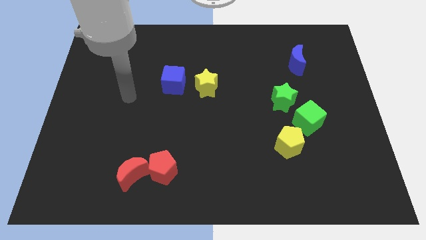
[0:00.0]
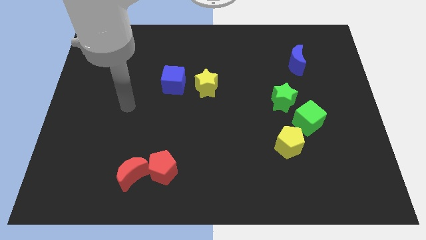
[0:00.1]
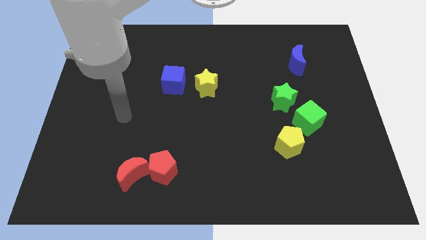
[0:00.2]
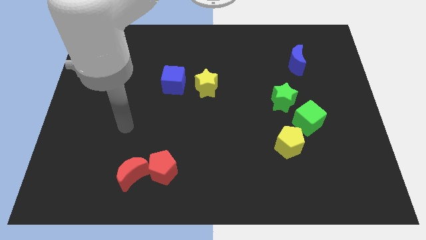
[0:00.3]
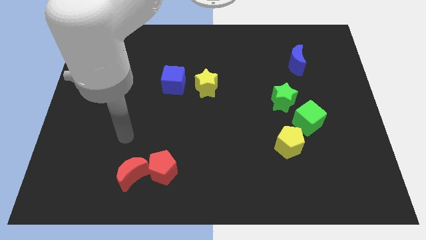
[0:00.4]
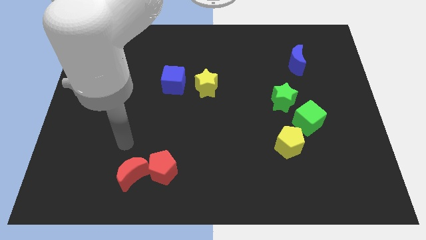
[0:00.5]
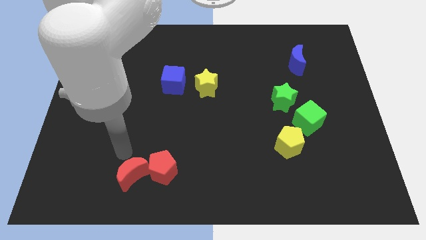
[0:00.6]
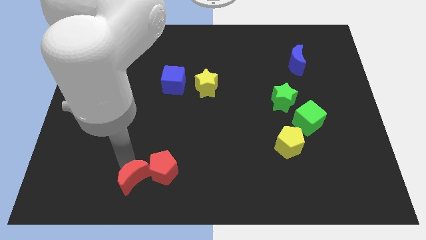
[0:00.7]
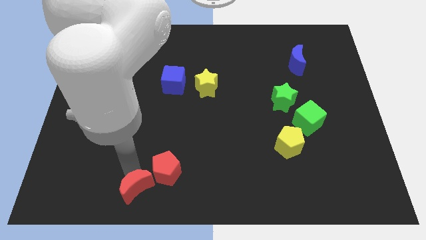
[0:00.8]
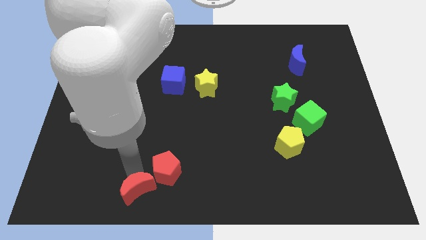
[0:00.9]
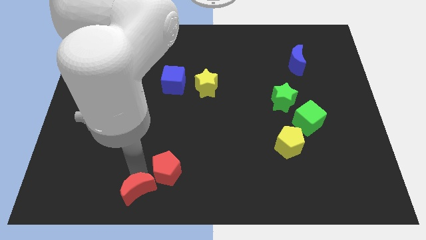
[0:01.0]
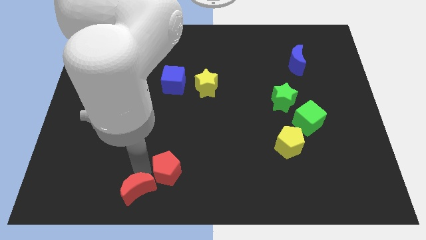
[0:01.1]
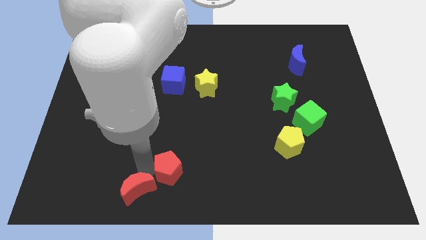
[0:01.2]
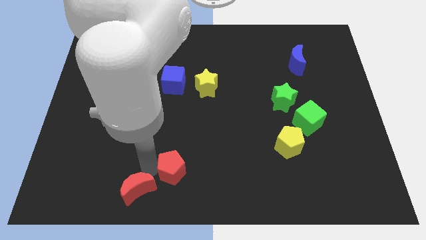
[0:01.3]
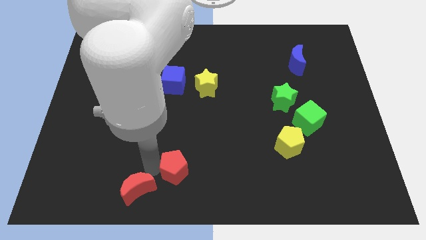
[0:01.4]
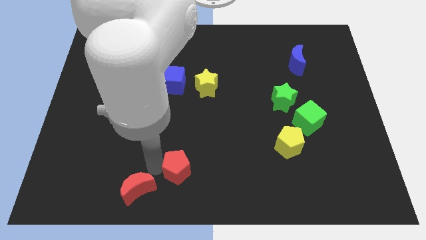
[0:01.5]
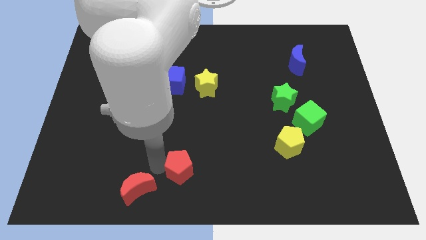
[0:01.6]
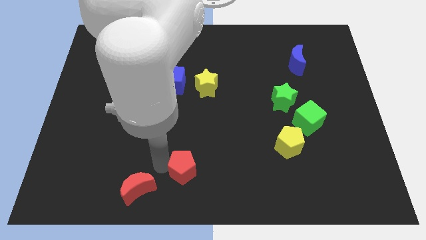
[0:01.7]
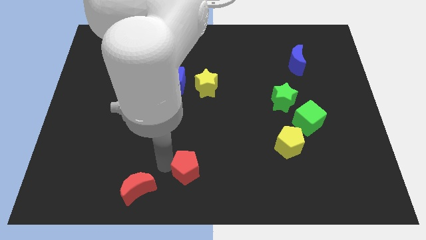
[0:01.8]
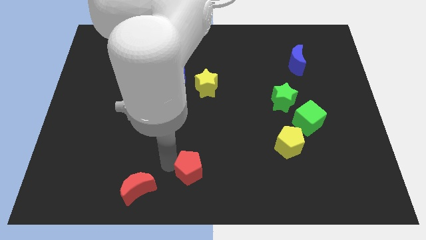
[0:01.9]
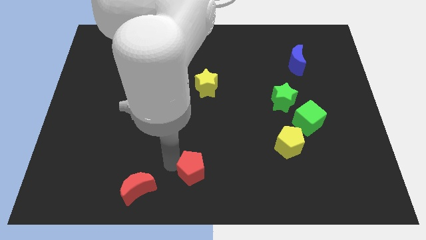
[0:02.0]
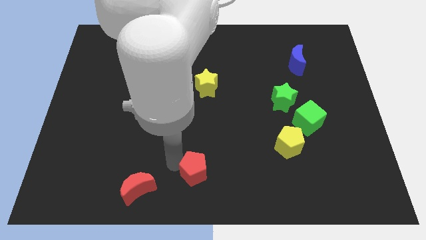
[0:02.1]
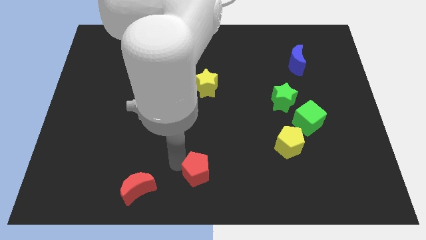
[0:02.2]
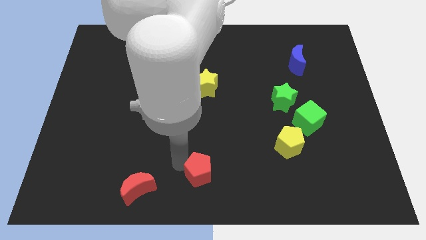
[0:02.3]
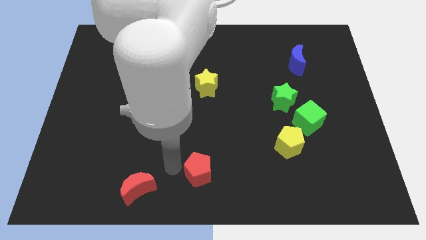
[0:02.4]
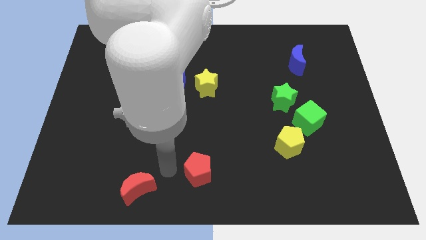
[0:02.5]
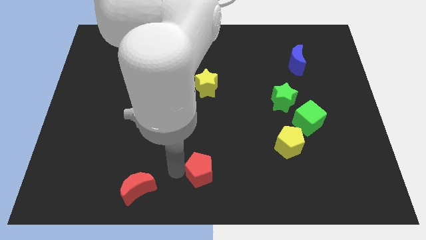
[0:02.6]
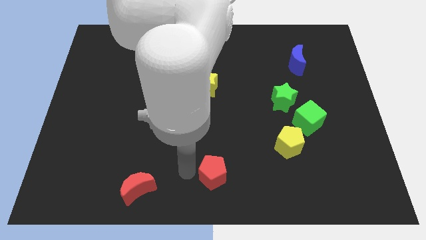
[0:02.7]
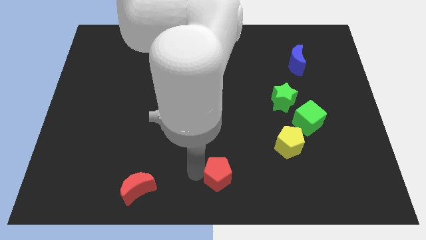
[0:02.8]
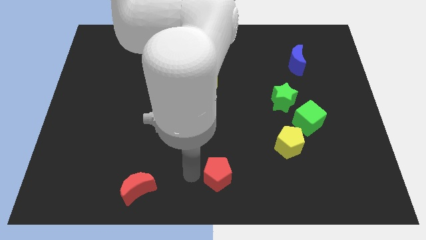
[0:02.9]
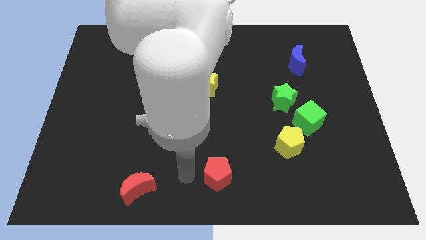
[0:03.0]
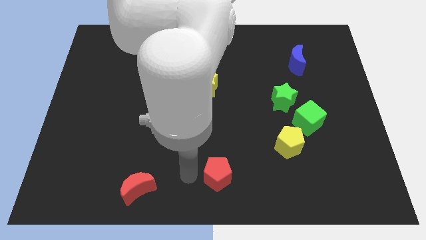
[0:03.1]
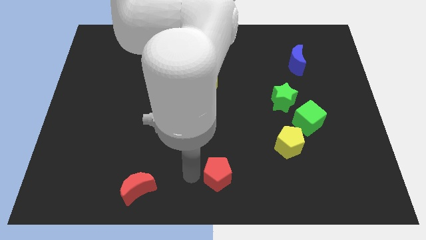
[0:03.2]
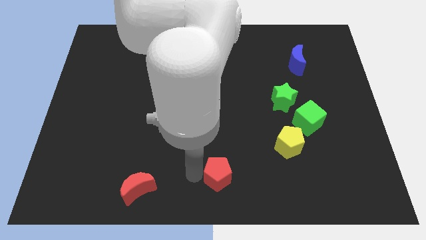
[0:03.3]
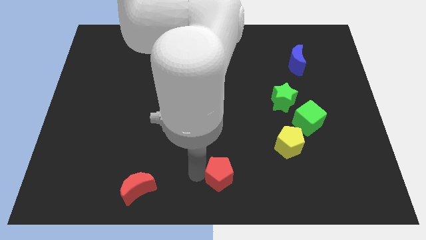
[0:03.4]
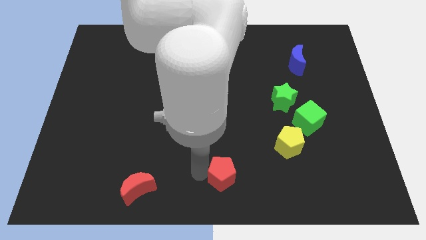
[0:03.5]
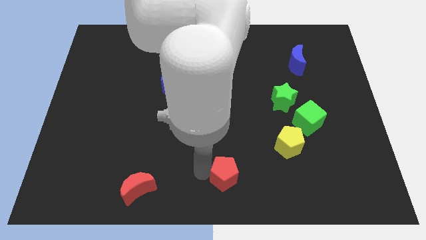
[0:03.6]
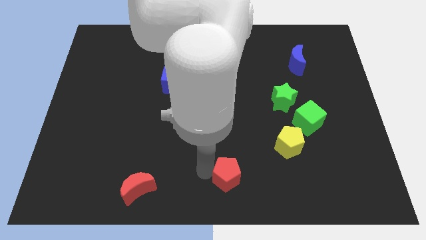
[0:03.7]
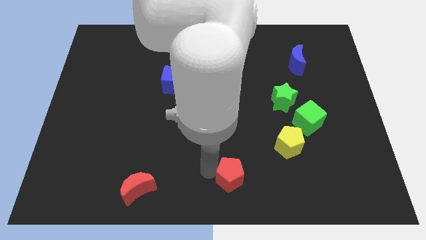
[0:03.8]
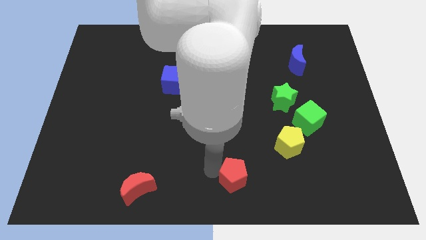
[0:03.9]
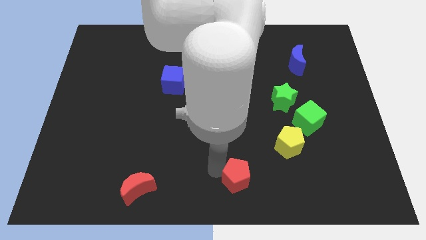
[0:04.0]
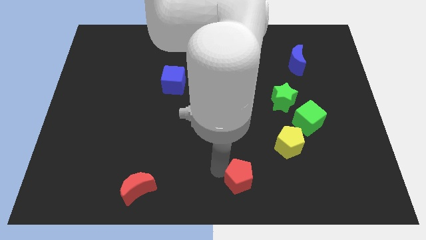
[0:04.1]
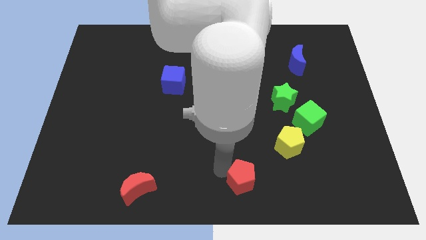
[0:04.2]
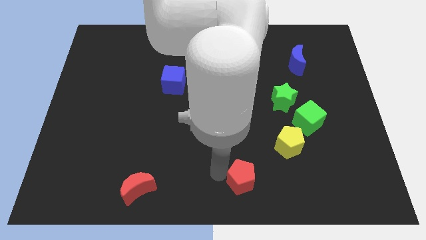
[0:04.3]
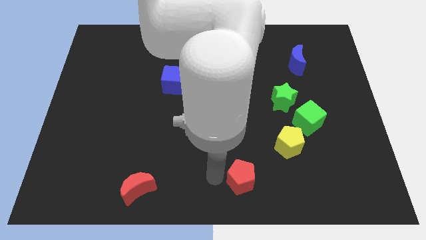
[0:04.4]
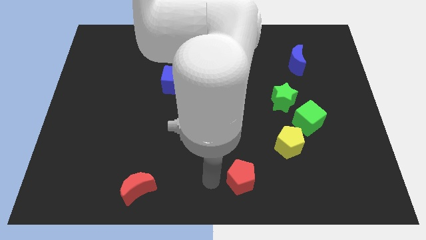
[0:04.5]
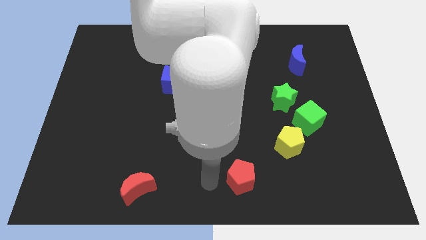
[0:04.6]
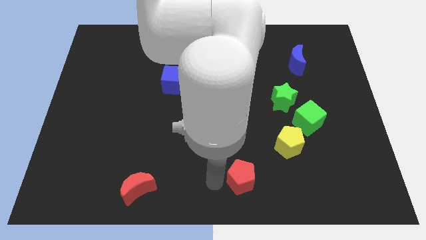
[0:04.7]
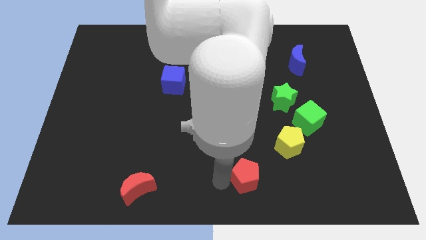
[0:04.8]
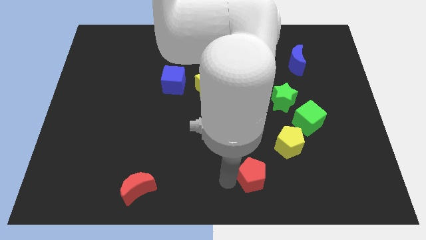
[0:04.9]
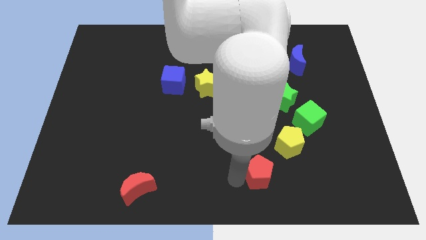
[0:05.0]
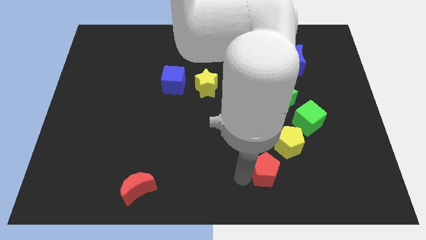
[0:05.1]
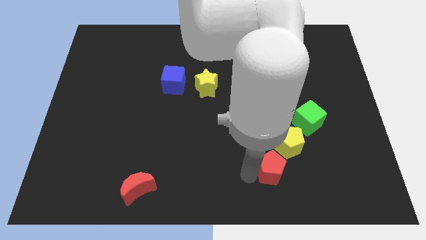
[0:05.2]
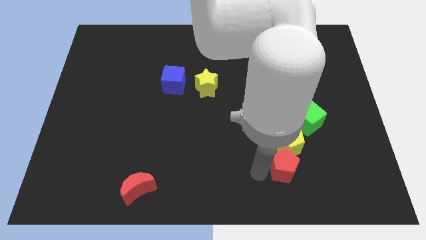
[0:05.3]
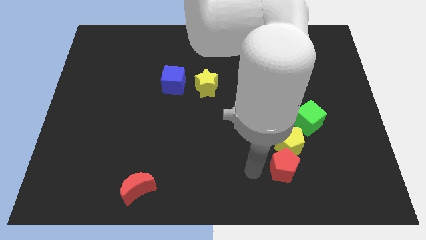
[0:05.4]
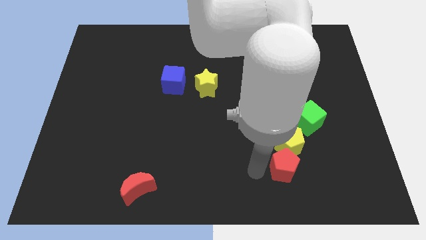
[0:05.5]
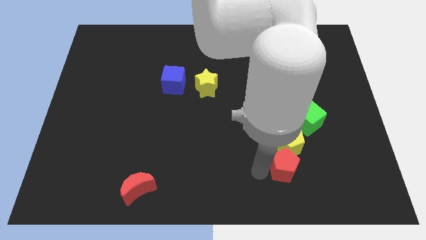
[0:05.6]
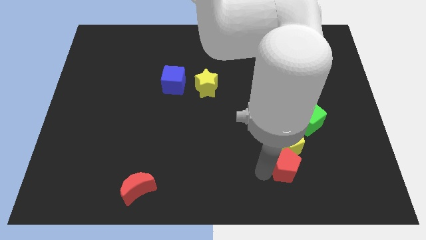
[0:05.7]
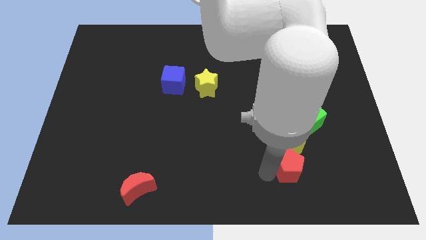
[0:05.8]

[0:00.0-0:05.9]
push the red pentagon to the bottom right side of the yellow pentagon

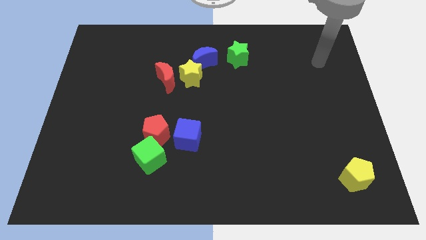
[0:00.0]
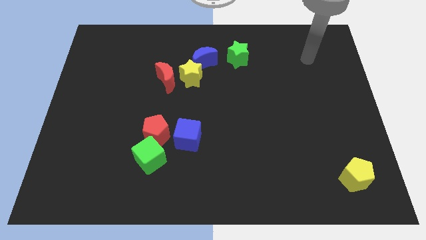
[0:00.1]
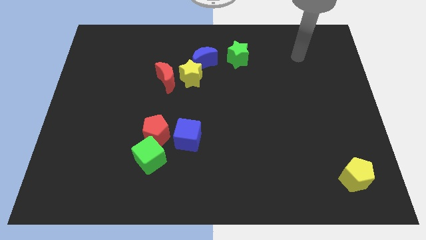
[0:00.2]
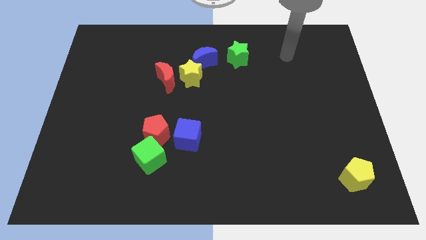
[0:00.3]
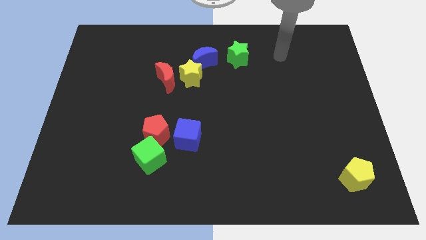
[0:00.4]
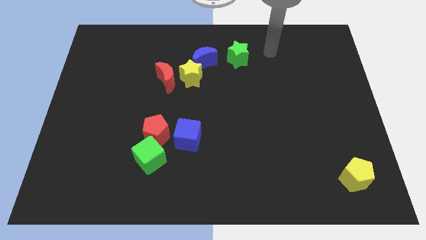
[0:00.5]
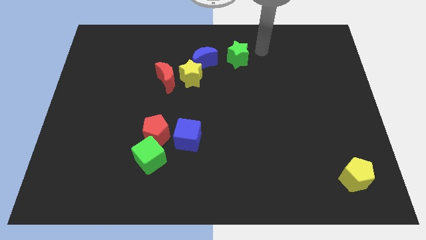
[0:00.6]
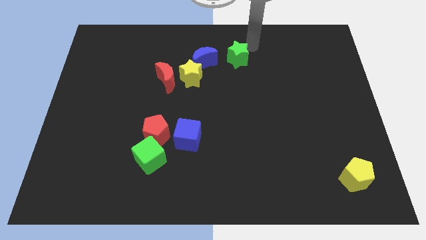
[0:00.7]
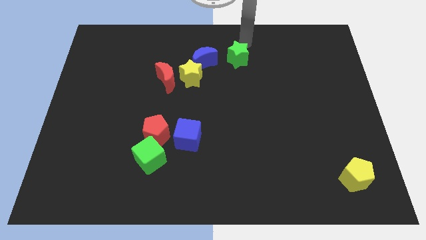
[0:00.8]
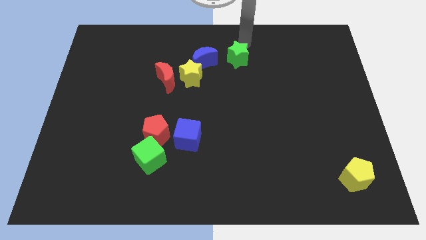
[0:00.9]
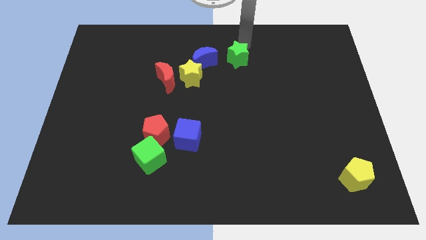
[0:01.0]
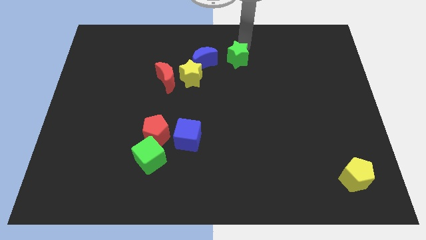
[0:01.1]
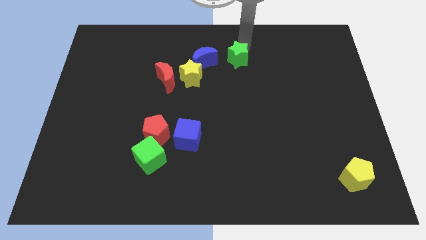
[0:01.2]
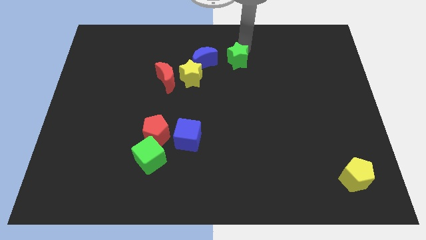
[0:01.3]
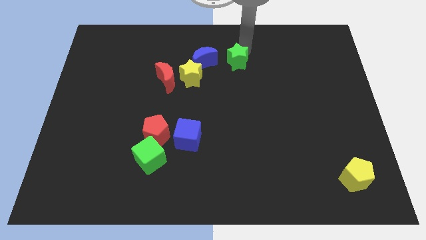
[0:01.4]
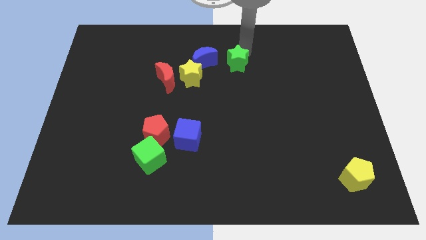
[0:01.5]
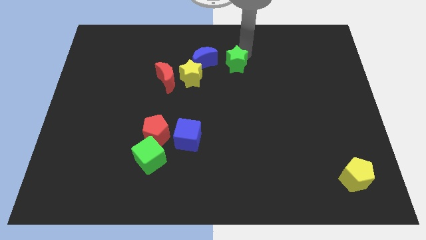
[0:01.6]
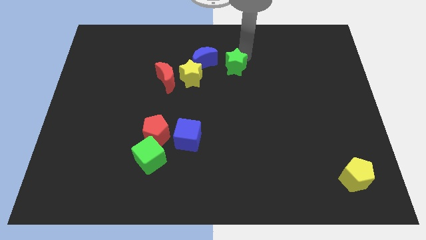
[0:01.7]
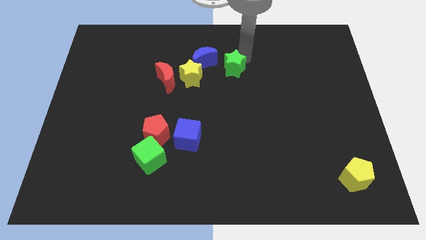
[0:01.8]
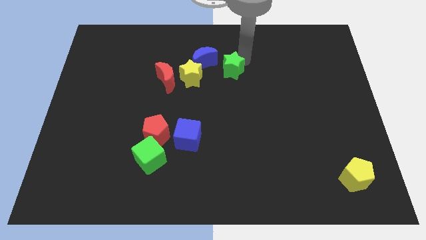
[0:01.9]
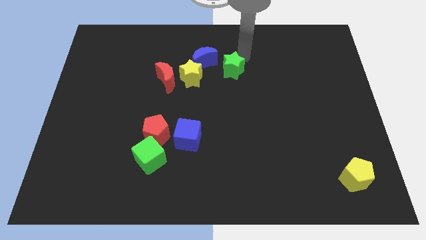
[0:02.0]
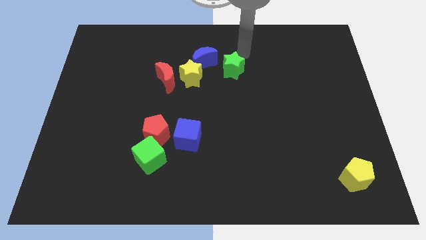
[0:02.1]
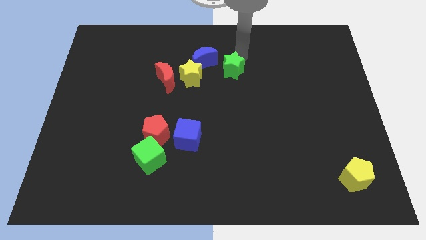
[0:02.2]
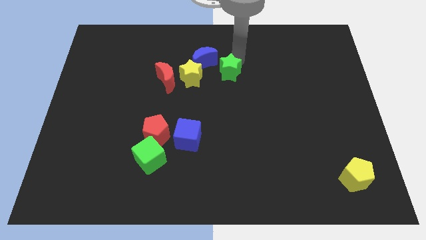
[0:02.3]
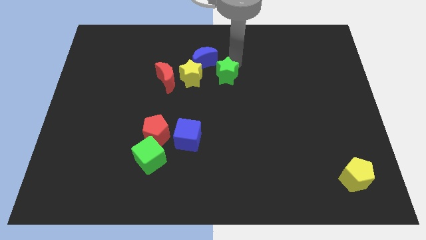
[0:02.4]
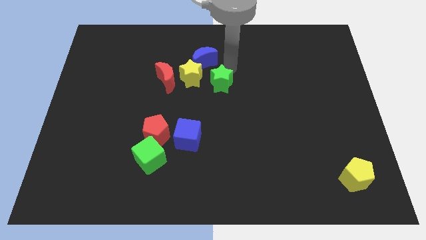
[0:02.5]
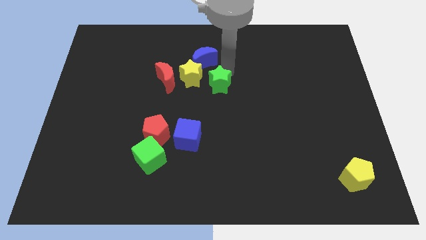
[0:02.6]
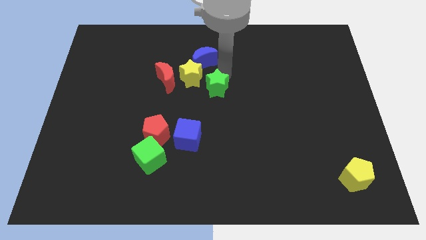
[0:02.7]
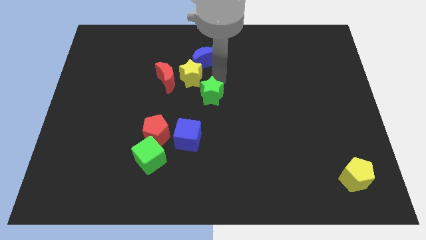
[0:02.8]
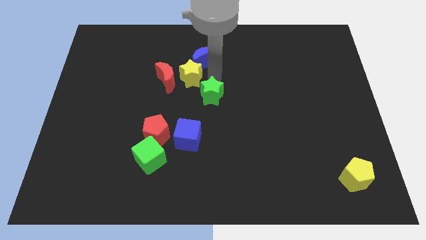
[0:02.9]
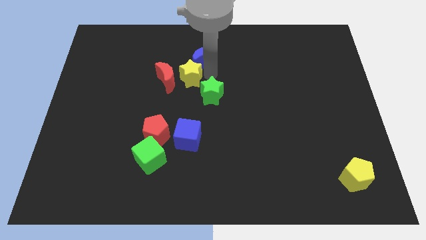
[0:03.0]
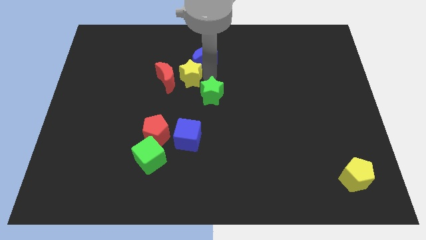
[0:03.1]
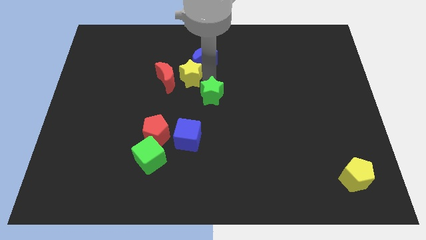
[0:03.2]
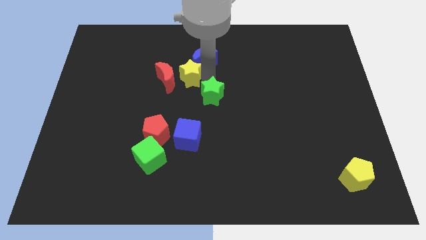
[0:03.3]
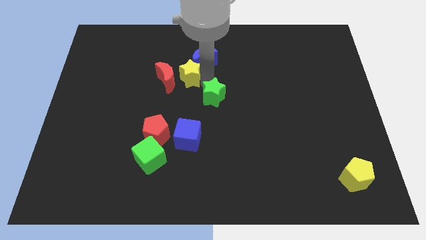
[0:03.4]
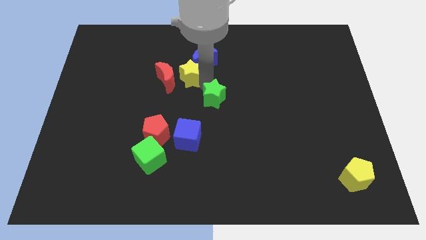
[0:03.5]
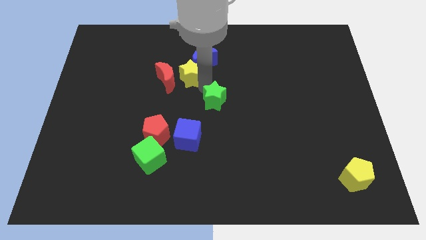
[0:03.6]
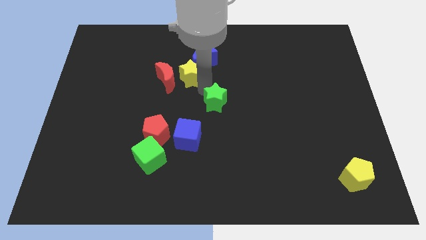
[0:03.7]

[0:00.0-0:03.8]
put the green star to the top right side of the blue cube
